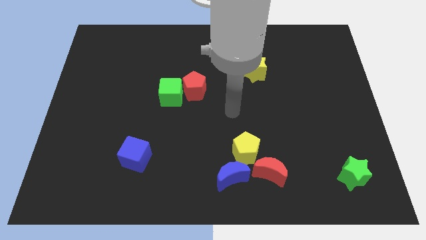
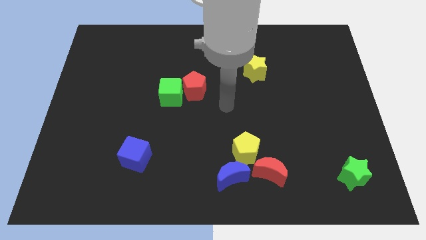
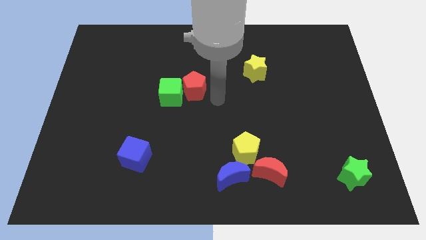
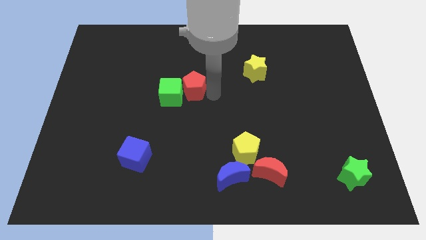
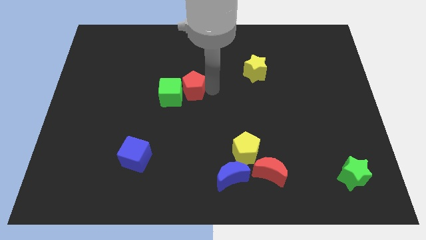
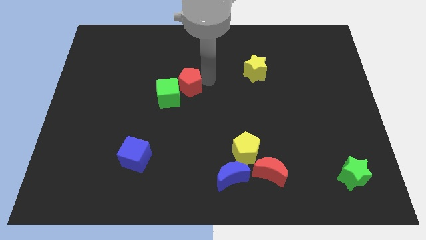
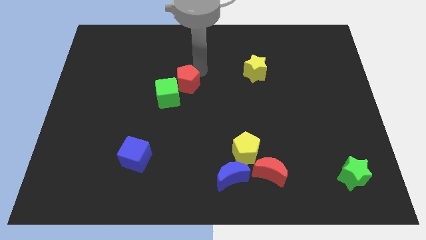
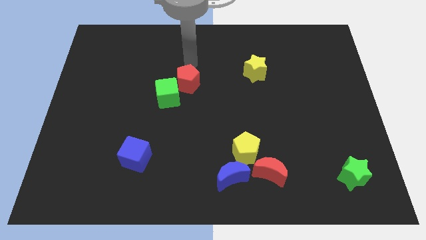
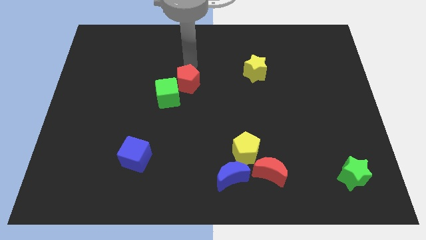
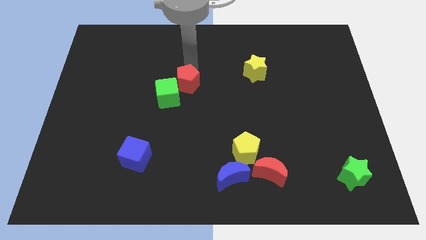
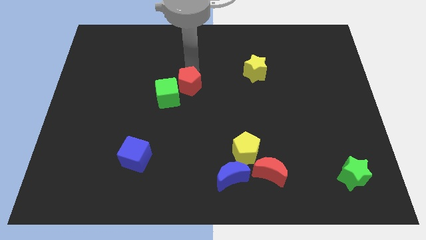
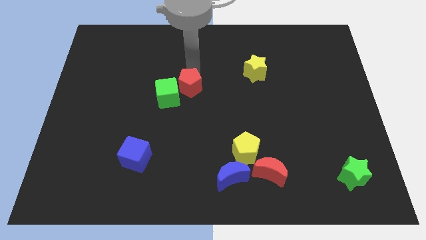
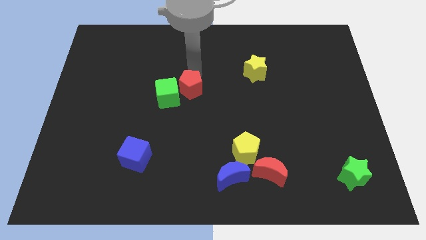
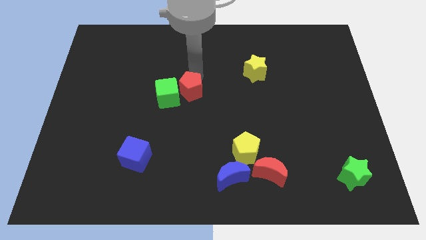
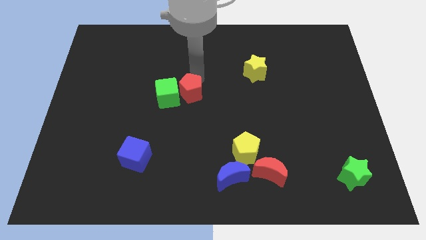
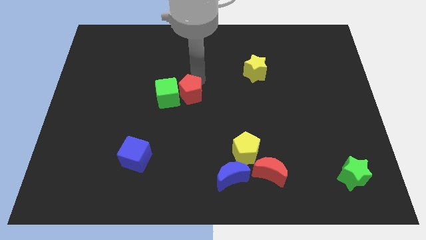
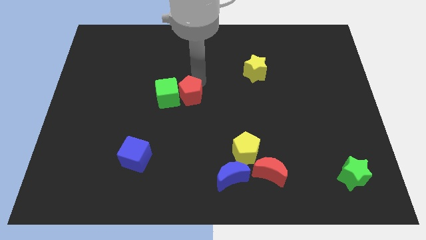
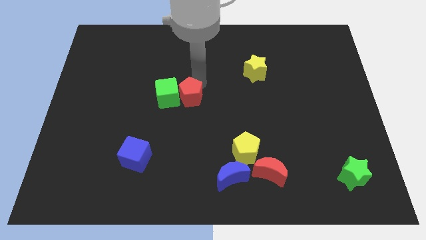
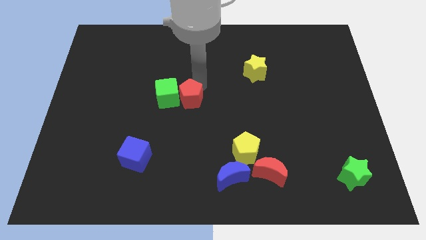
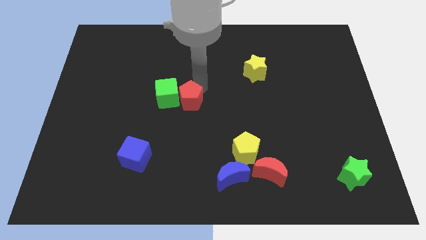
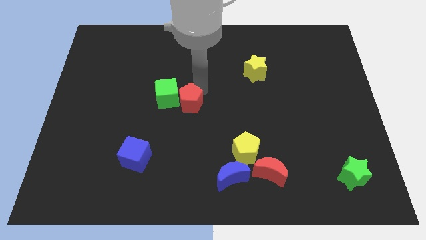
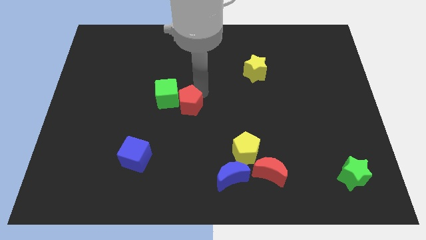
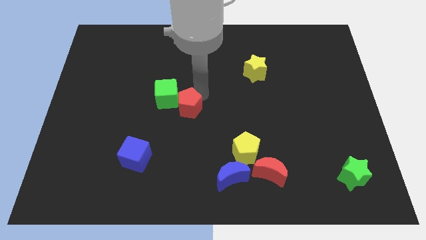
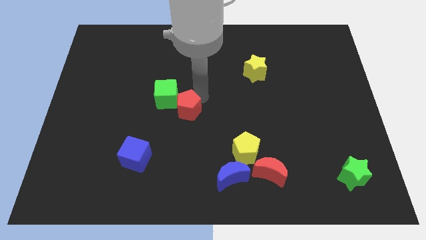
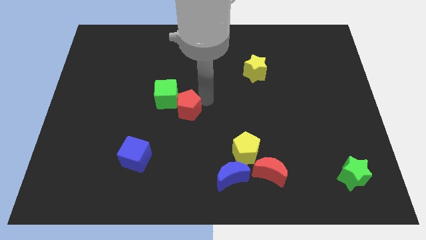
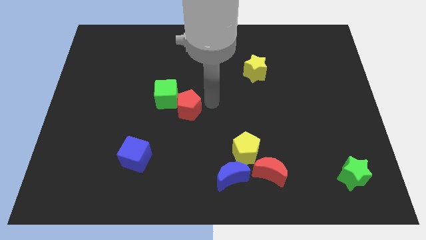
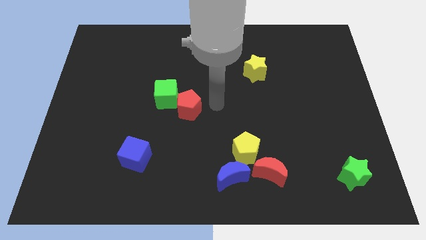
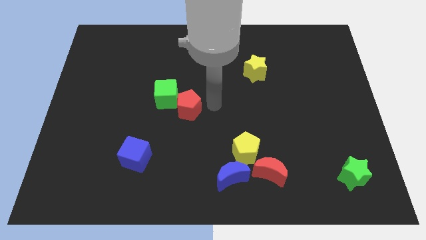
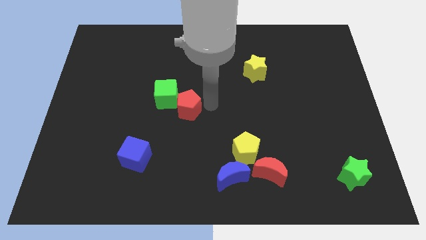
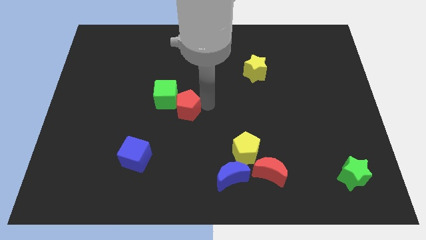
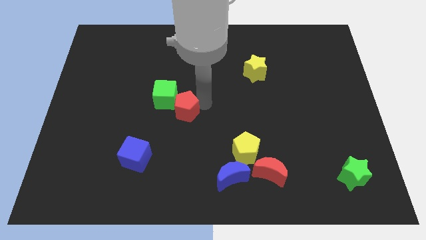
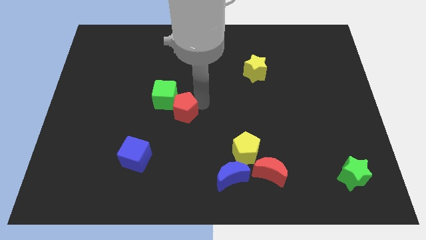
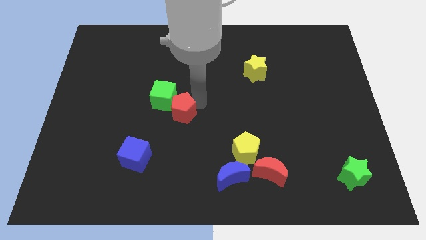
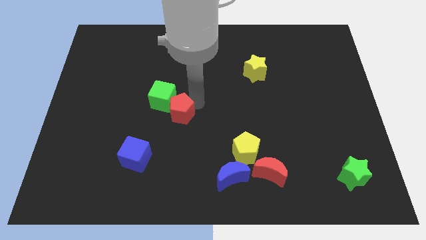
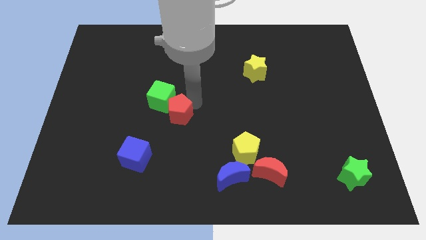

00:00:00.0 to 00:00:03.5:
slide the red pentagon diagonally downwards and left somewhat

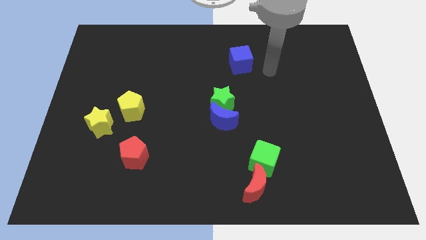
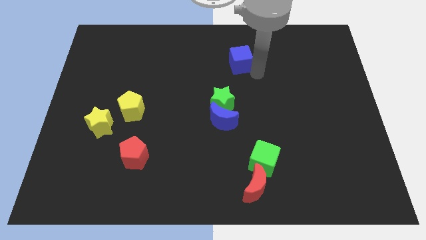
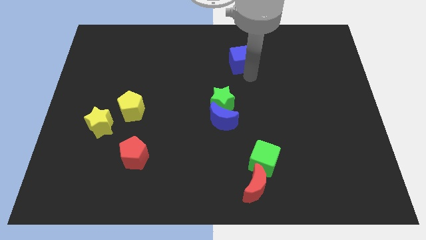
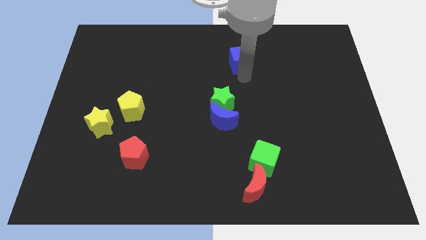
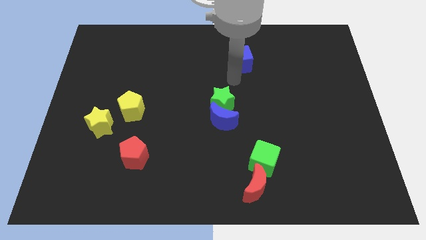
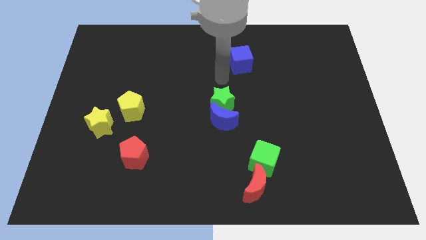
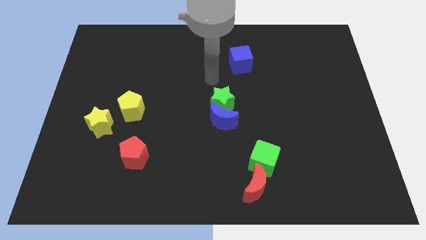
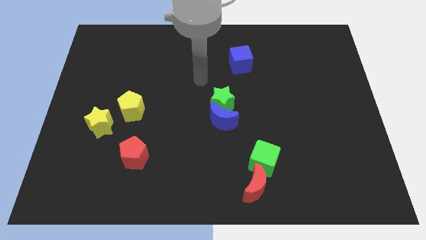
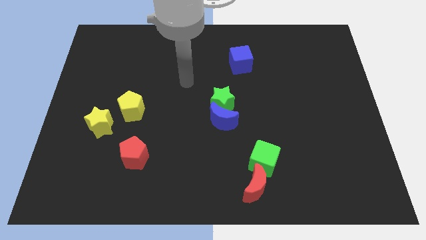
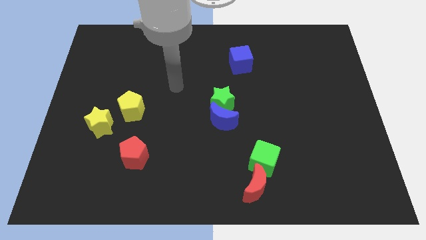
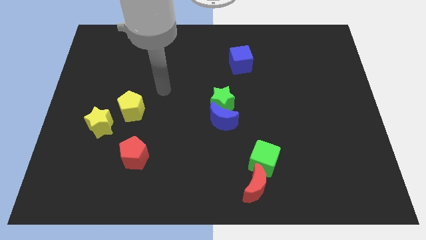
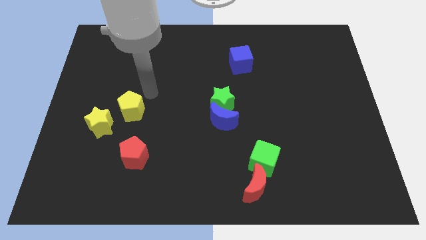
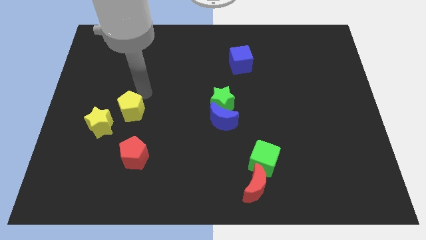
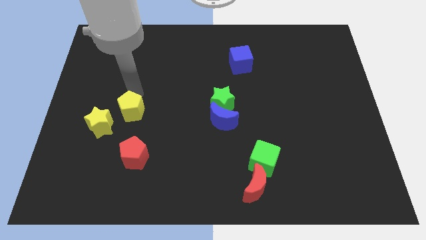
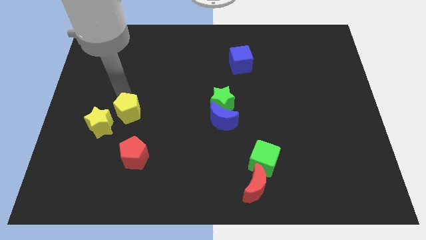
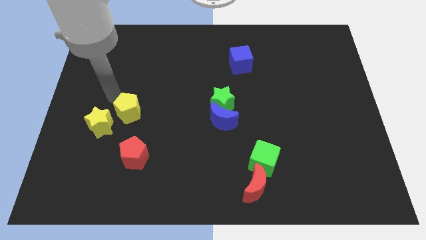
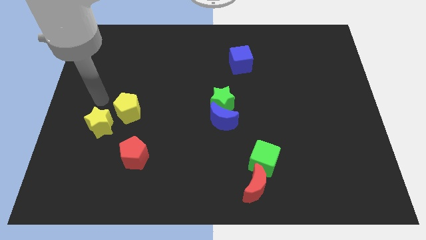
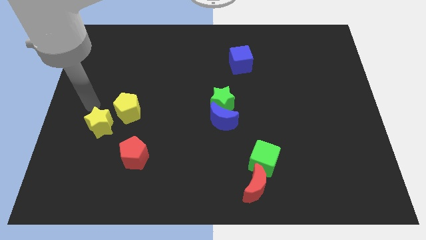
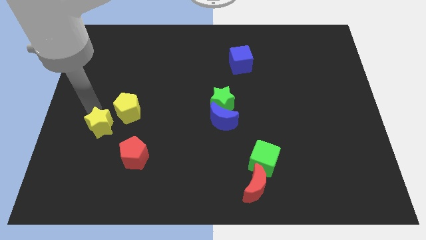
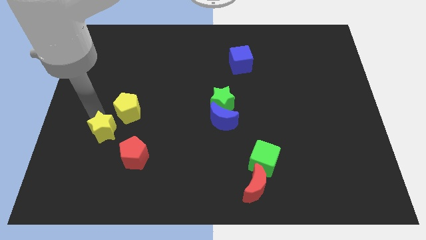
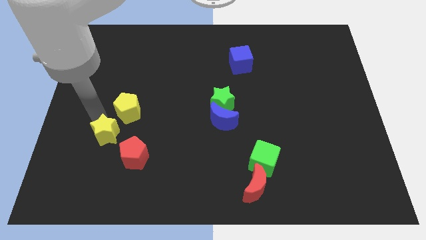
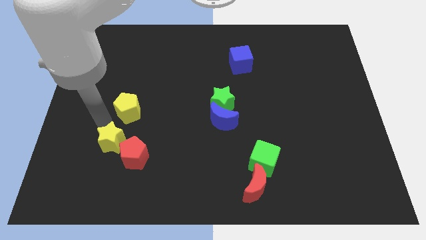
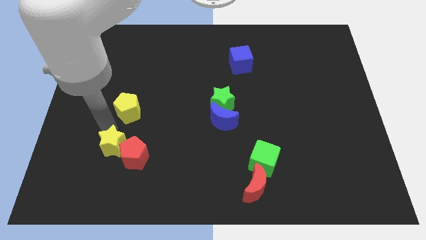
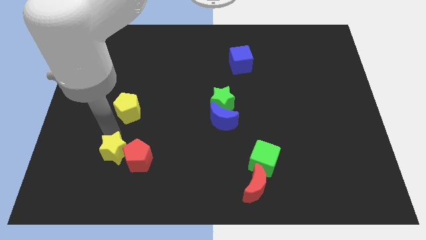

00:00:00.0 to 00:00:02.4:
move the yellow star downwards and to the right diagonally slightly

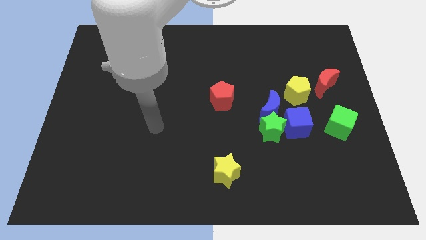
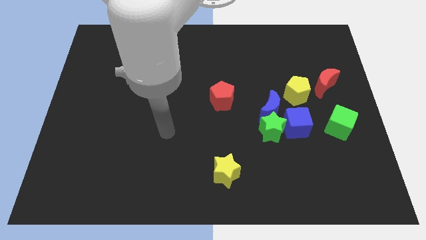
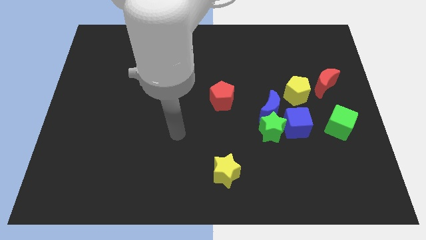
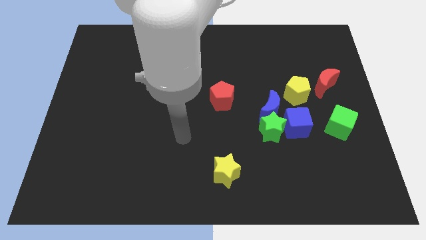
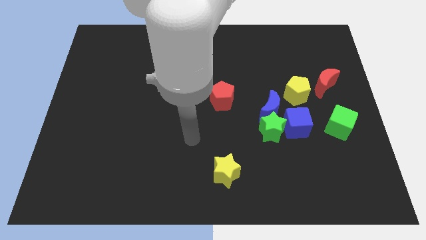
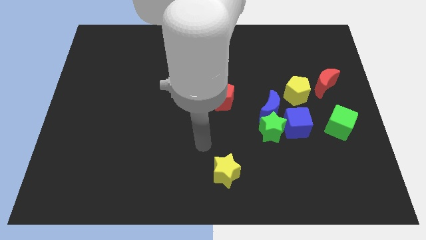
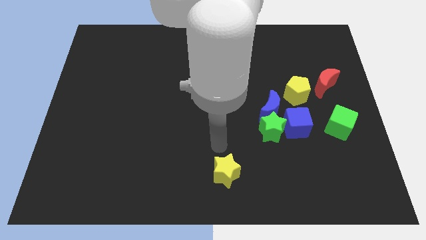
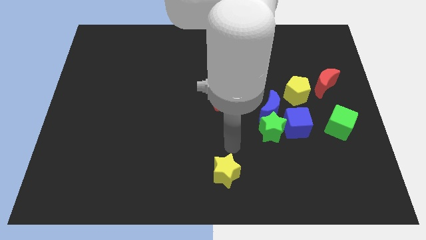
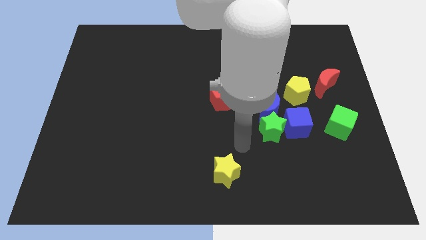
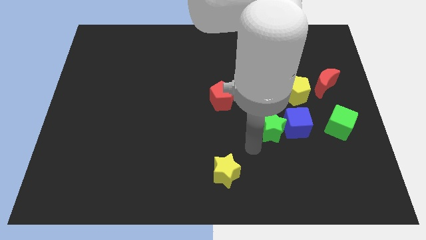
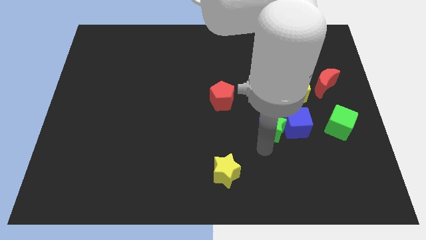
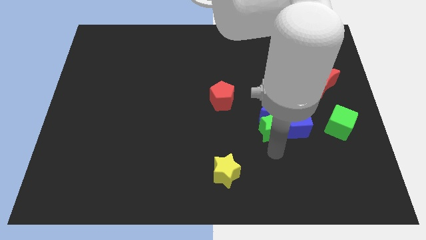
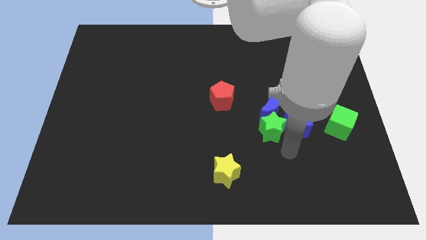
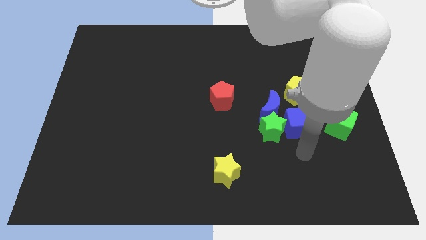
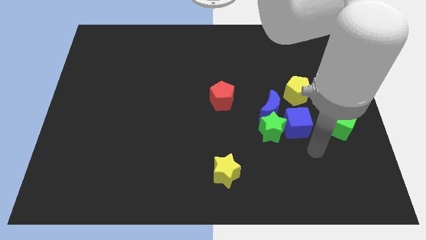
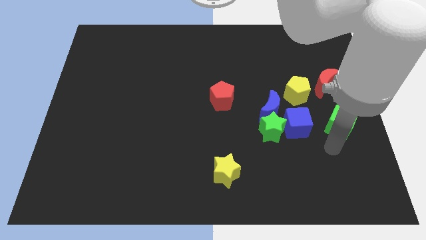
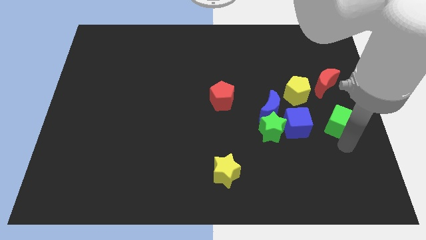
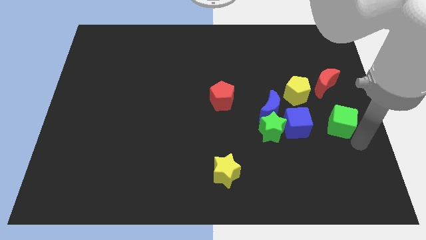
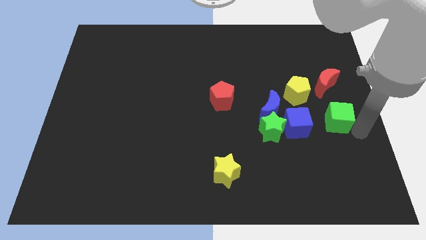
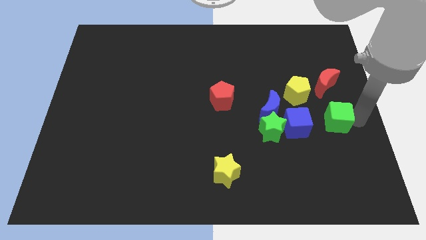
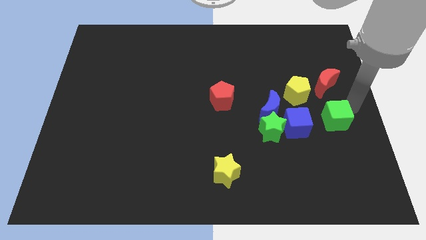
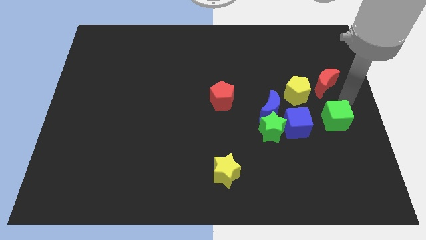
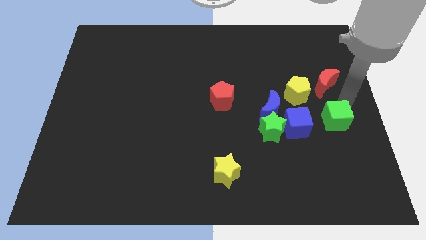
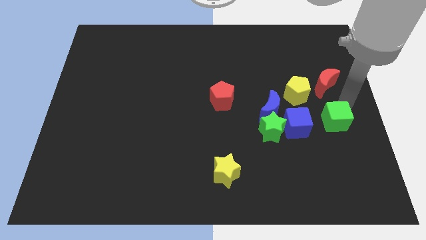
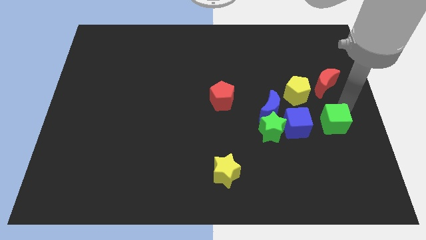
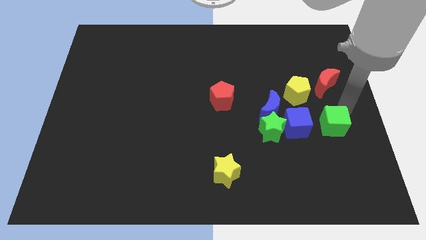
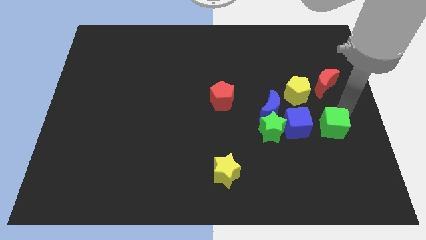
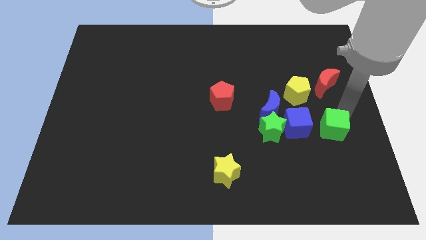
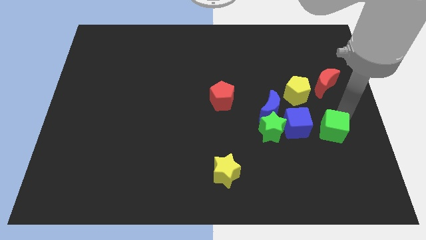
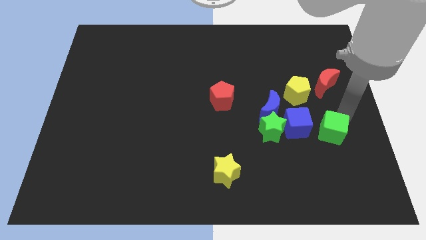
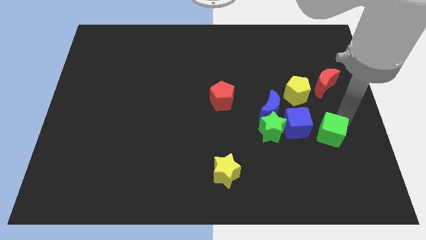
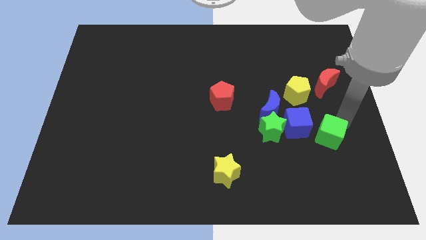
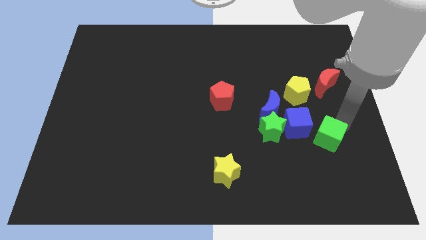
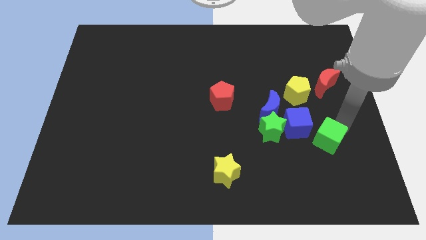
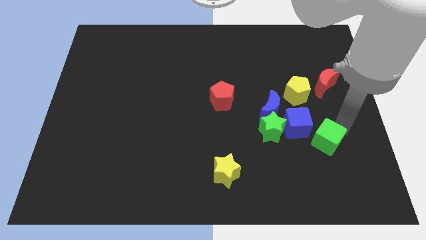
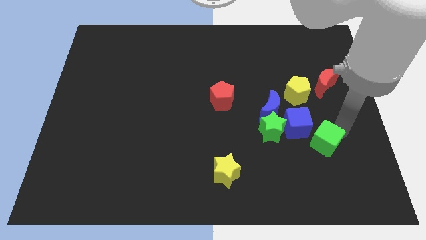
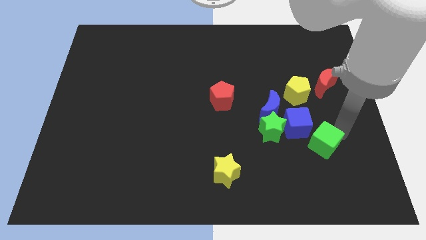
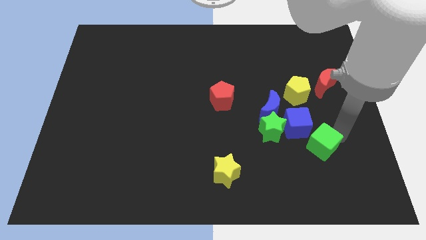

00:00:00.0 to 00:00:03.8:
slide the green cube down and then to the left a little
